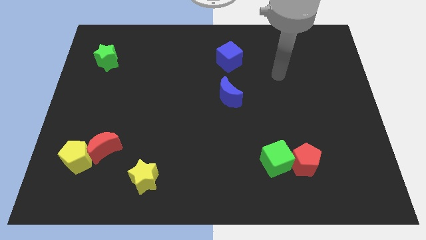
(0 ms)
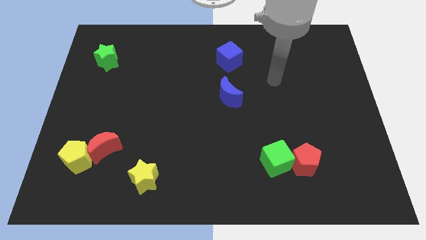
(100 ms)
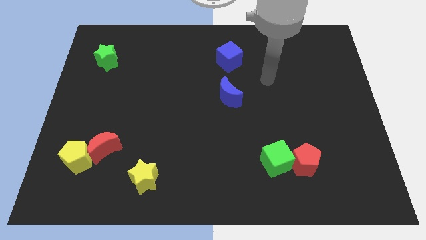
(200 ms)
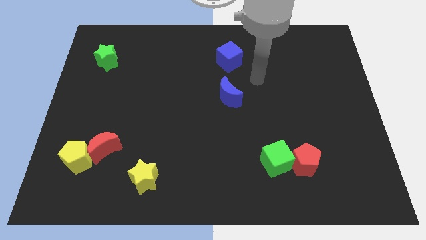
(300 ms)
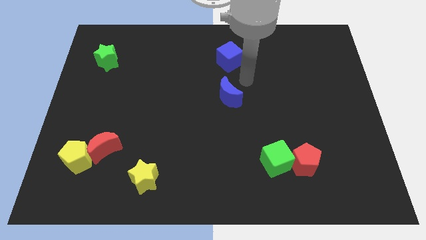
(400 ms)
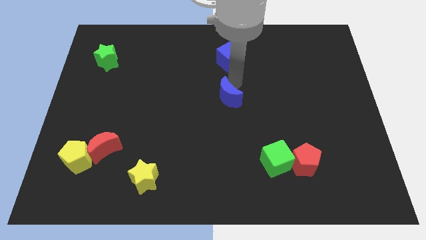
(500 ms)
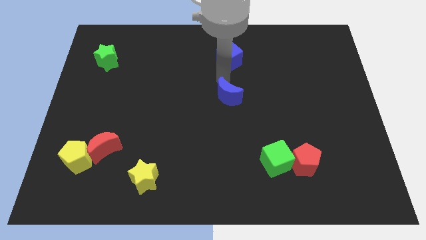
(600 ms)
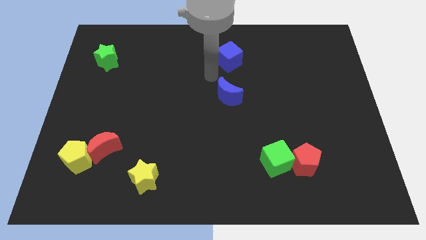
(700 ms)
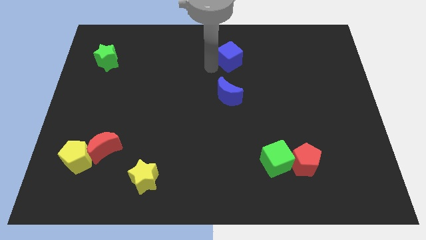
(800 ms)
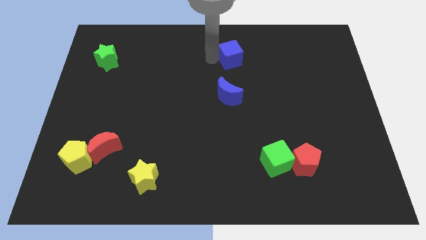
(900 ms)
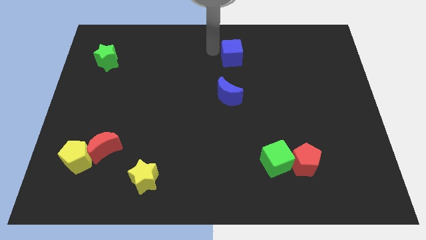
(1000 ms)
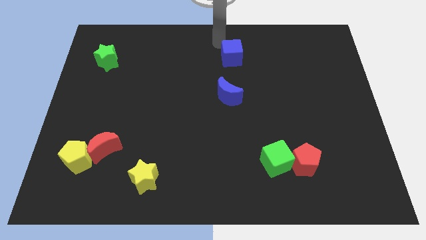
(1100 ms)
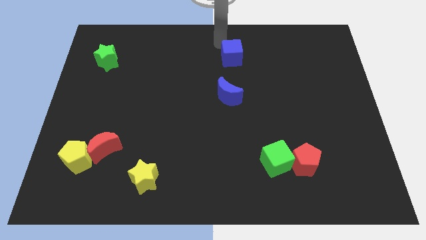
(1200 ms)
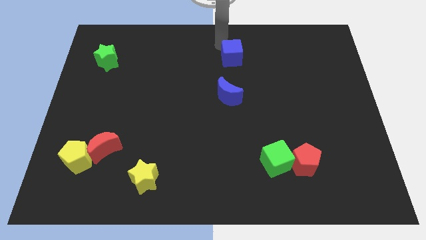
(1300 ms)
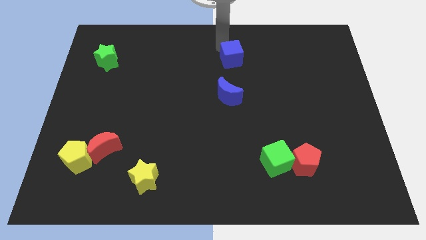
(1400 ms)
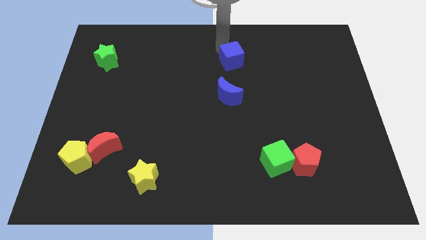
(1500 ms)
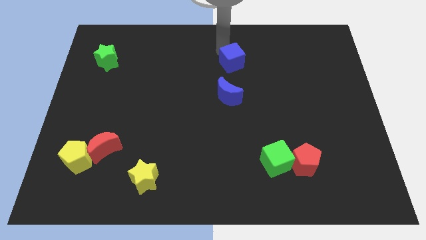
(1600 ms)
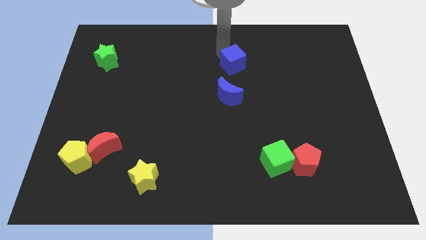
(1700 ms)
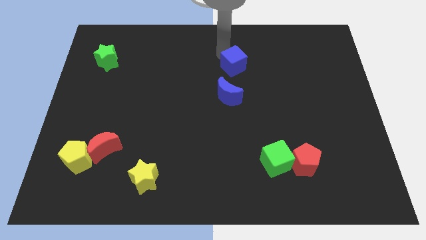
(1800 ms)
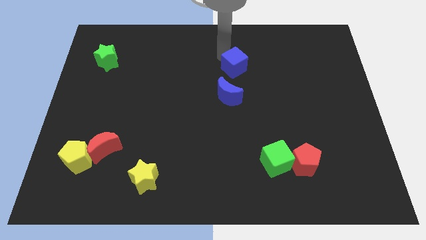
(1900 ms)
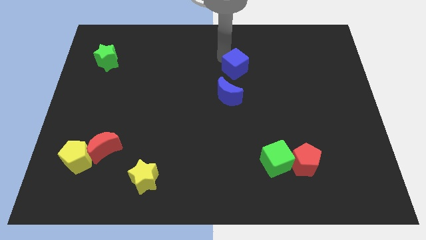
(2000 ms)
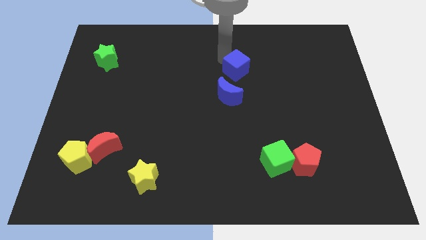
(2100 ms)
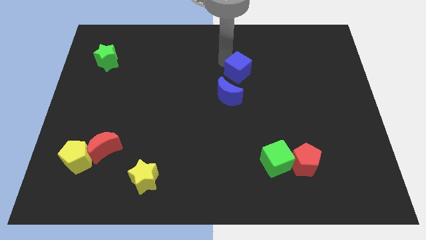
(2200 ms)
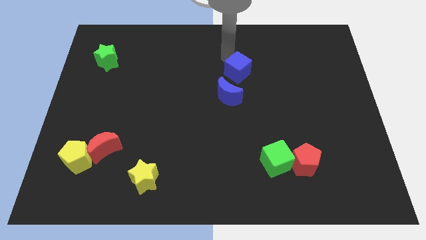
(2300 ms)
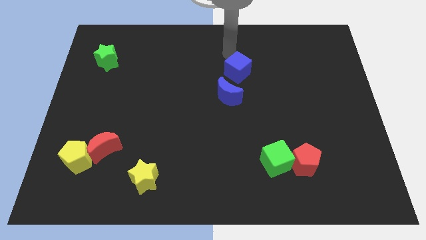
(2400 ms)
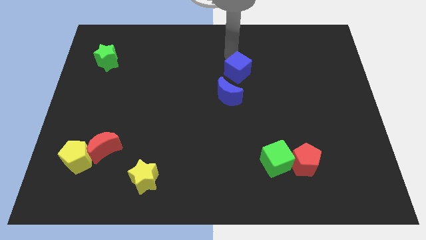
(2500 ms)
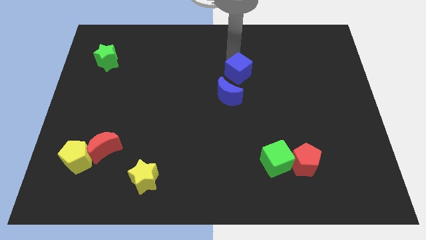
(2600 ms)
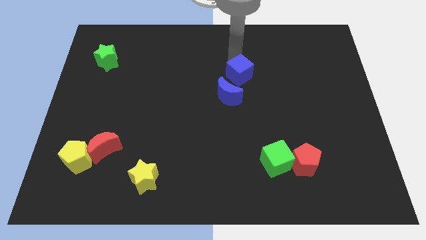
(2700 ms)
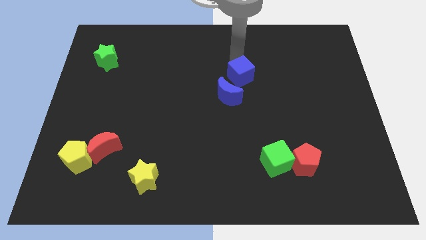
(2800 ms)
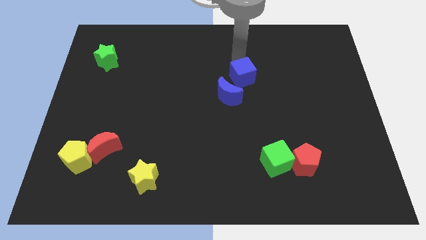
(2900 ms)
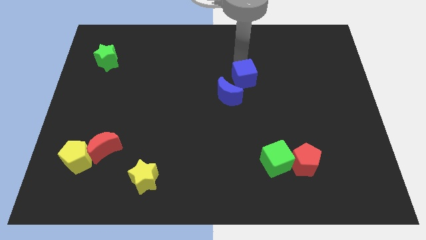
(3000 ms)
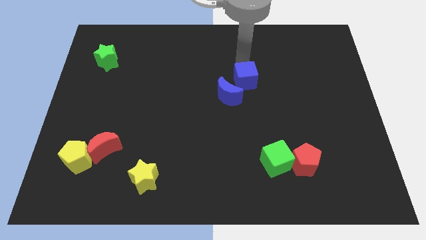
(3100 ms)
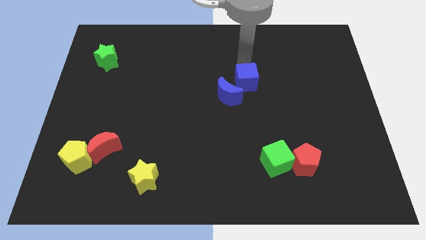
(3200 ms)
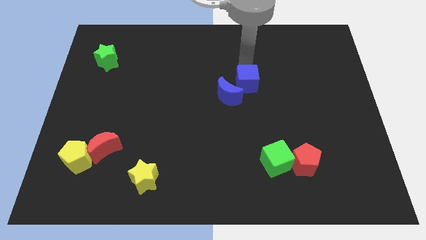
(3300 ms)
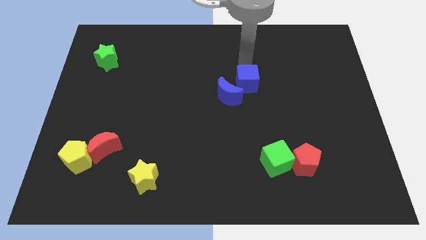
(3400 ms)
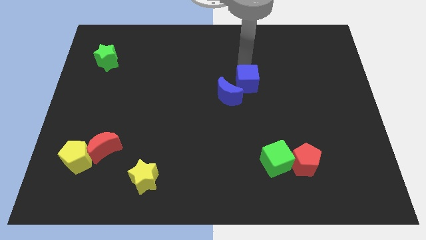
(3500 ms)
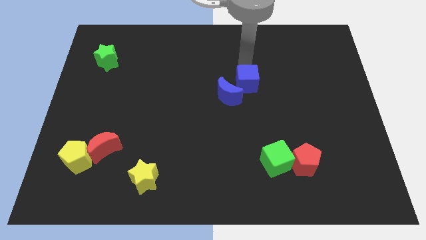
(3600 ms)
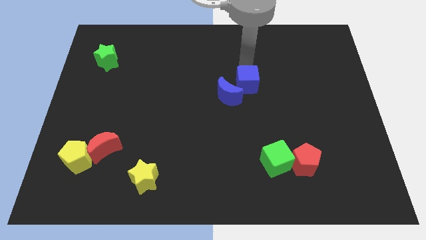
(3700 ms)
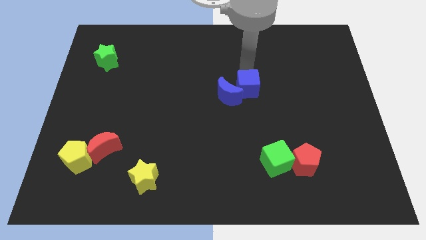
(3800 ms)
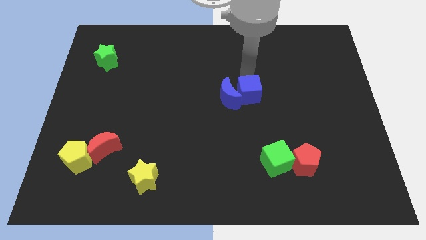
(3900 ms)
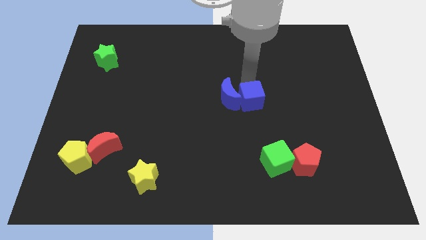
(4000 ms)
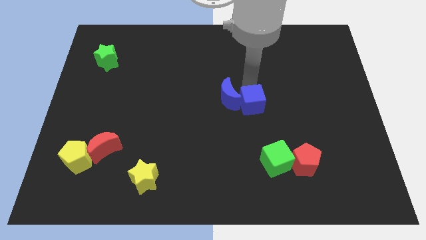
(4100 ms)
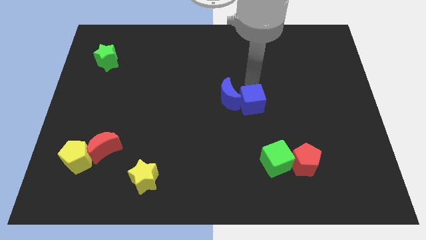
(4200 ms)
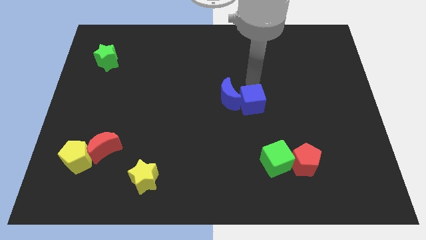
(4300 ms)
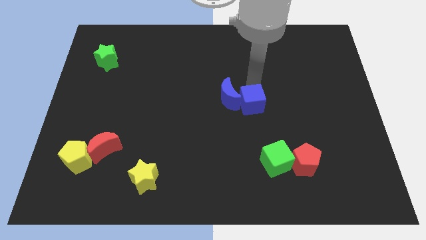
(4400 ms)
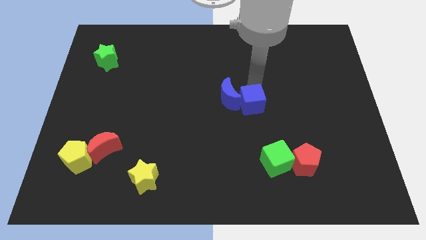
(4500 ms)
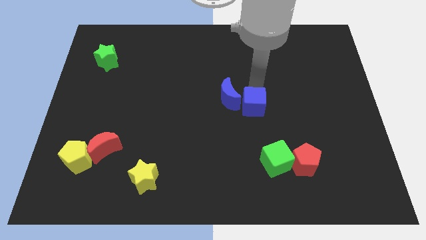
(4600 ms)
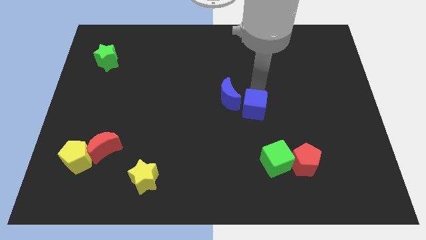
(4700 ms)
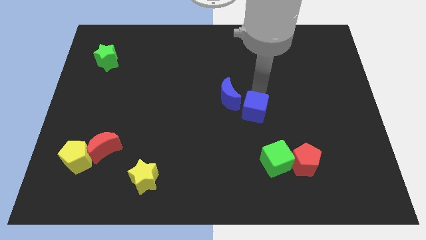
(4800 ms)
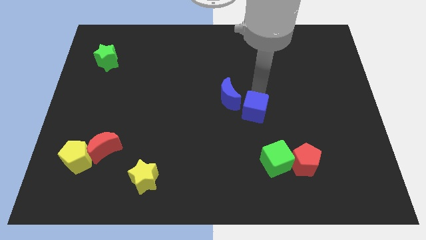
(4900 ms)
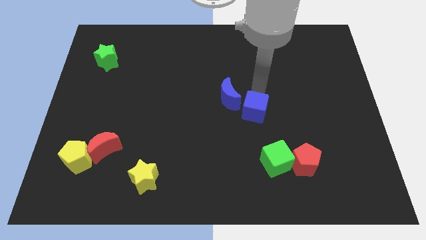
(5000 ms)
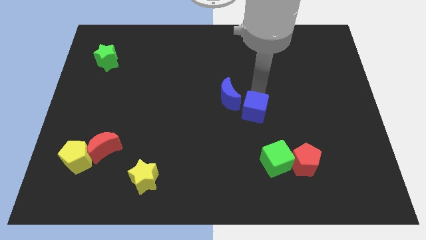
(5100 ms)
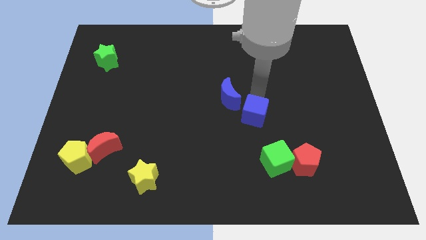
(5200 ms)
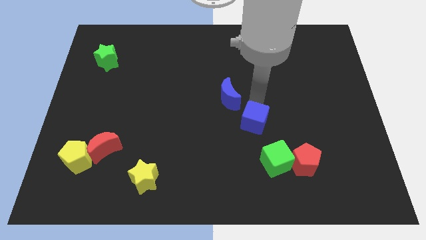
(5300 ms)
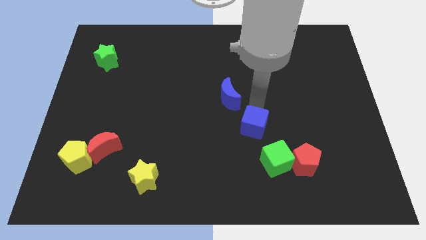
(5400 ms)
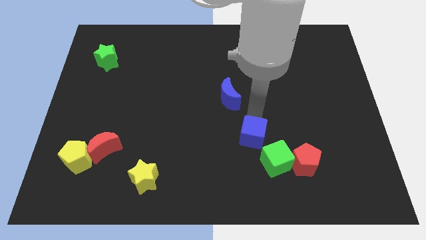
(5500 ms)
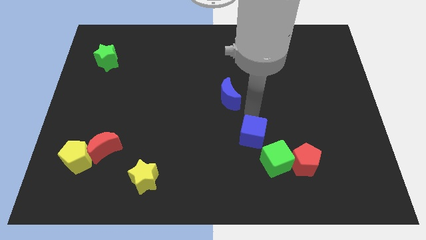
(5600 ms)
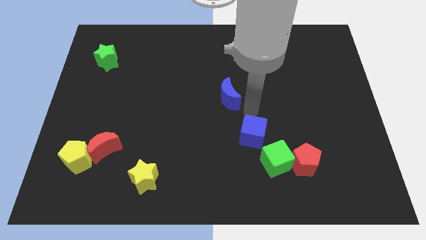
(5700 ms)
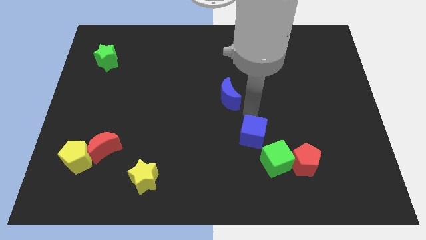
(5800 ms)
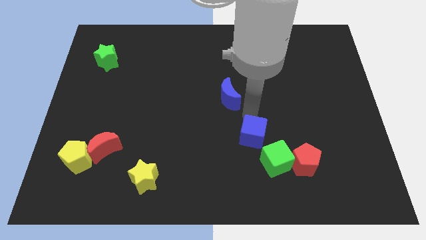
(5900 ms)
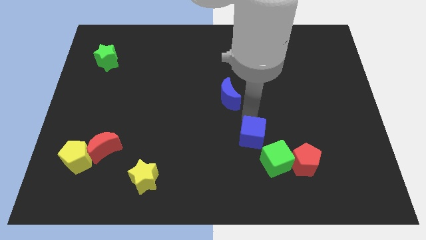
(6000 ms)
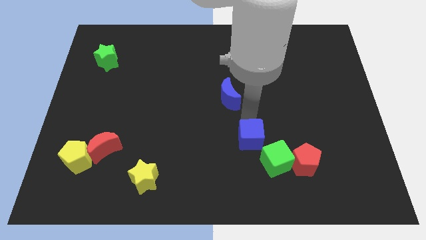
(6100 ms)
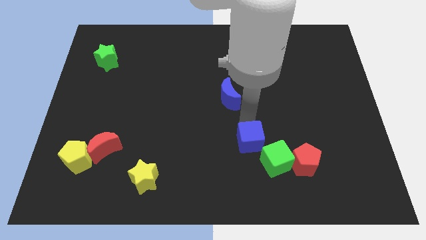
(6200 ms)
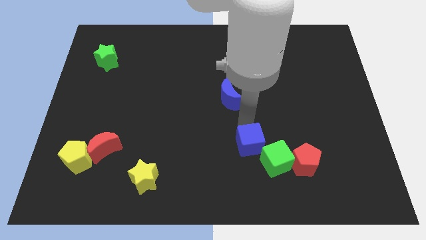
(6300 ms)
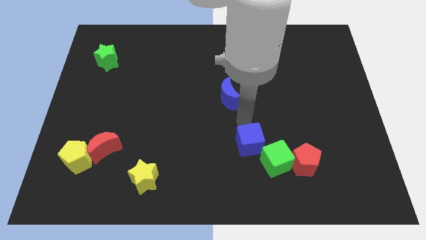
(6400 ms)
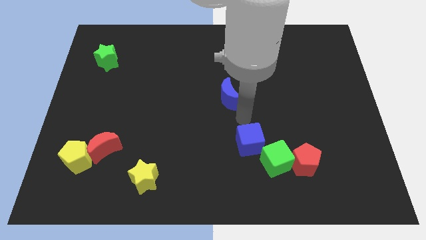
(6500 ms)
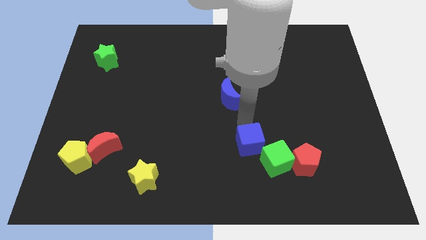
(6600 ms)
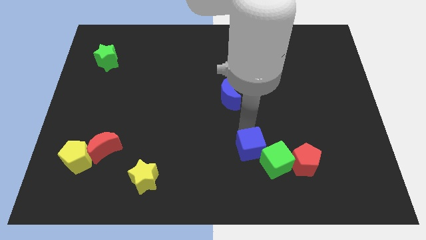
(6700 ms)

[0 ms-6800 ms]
put the blue cube to the left side of the red pentagon

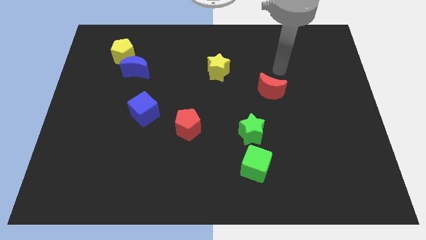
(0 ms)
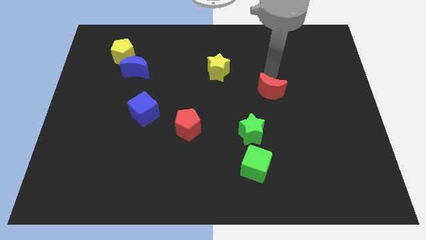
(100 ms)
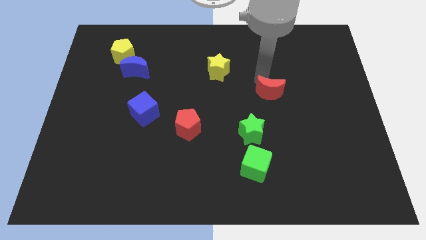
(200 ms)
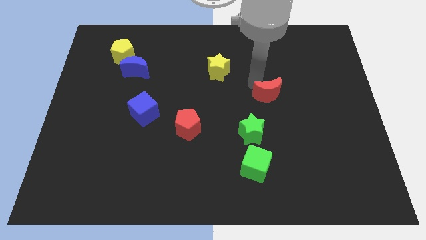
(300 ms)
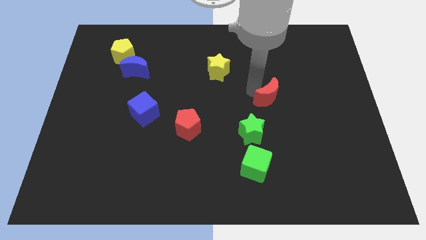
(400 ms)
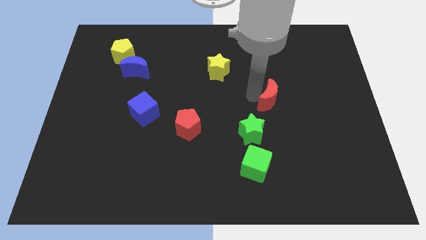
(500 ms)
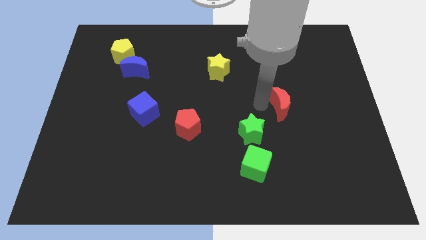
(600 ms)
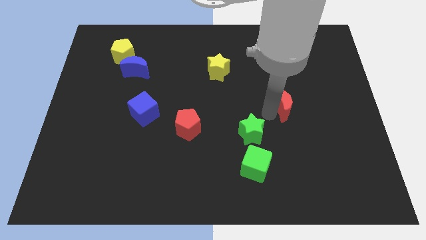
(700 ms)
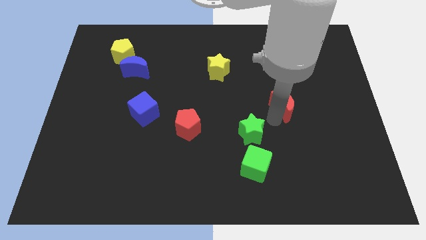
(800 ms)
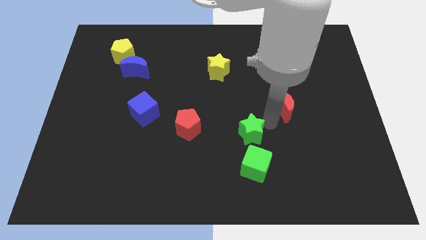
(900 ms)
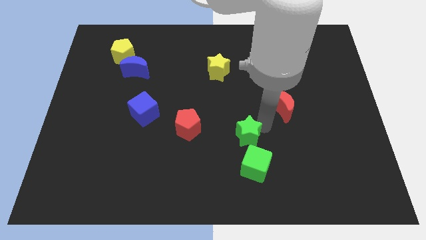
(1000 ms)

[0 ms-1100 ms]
push the green star diagonally up and to the left of the green cube
